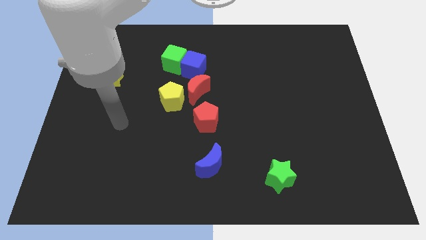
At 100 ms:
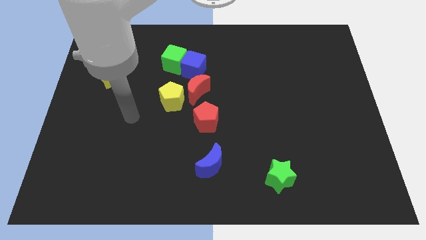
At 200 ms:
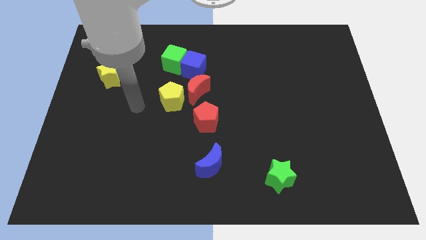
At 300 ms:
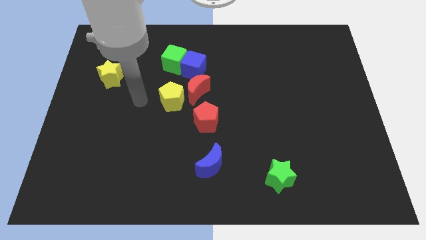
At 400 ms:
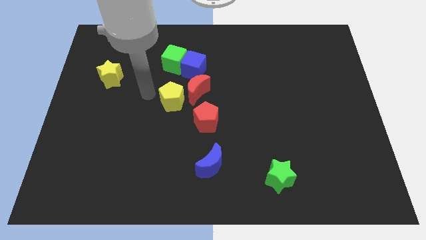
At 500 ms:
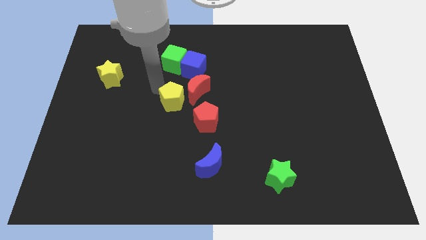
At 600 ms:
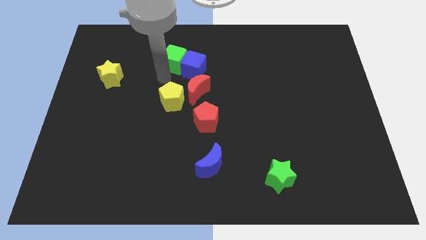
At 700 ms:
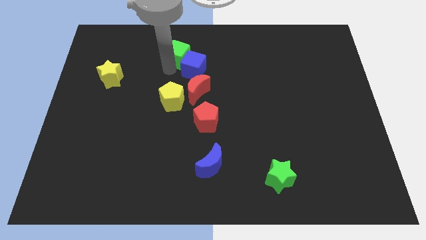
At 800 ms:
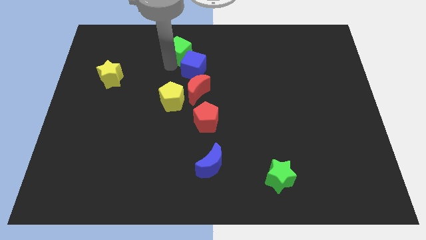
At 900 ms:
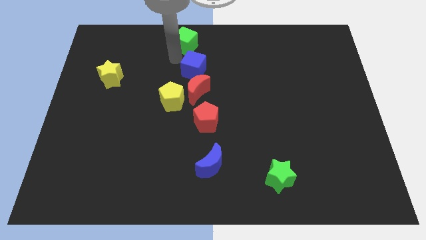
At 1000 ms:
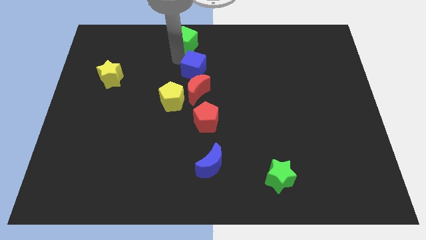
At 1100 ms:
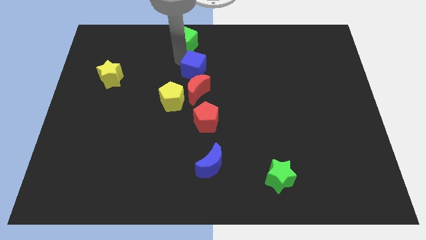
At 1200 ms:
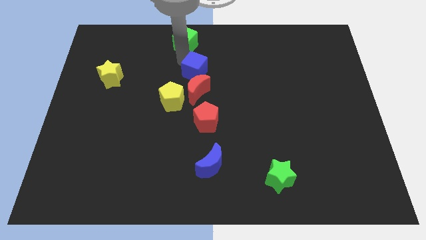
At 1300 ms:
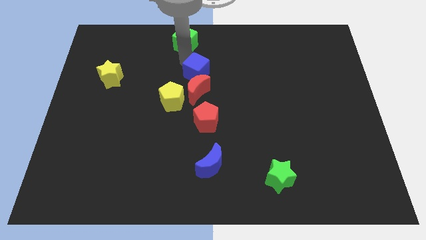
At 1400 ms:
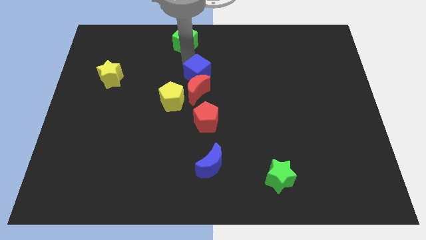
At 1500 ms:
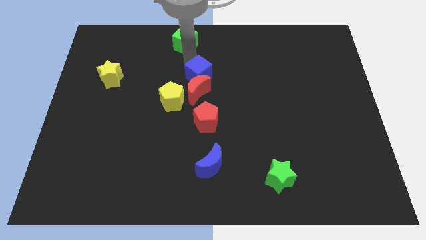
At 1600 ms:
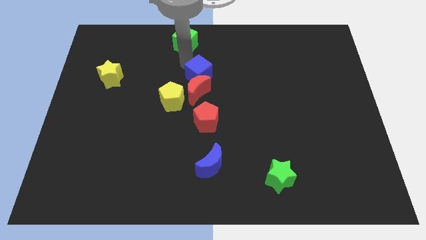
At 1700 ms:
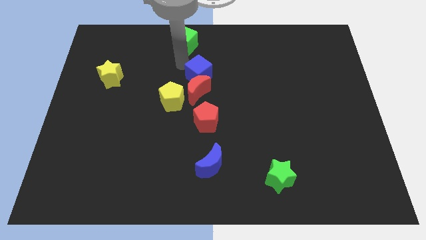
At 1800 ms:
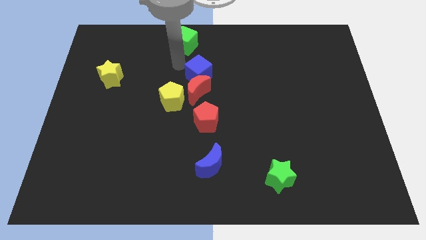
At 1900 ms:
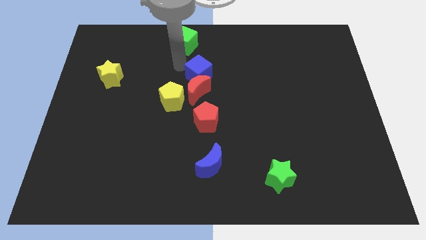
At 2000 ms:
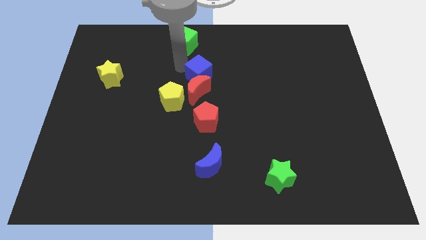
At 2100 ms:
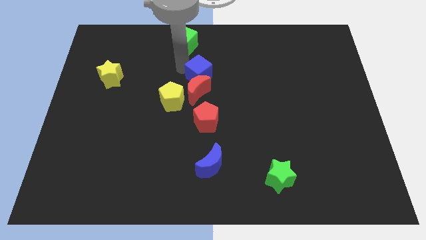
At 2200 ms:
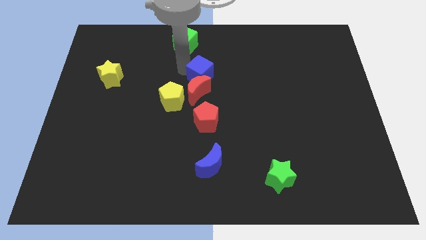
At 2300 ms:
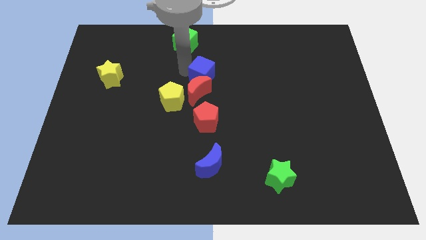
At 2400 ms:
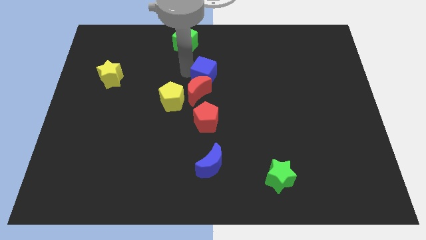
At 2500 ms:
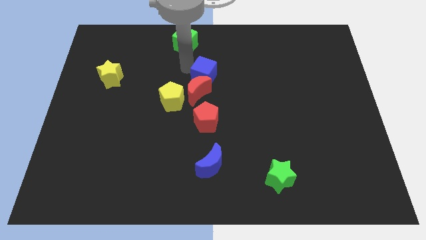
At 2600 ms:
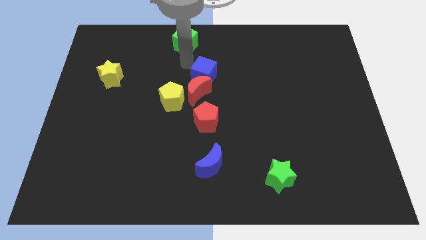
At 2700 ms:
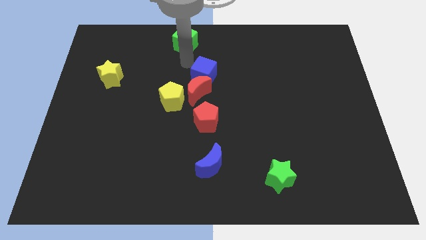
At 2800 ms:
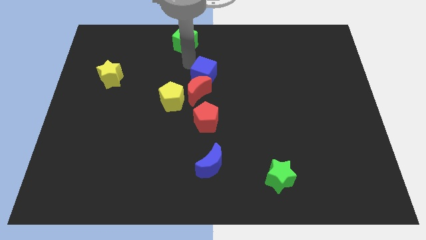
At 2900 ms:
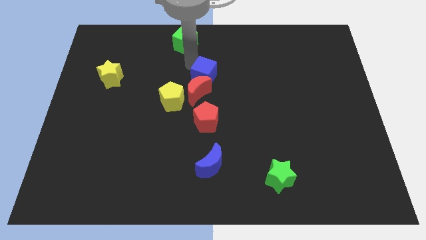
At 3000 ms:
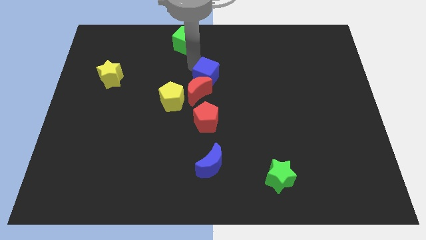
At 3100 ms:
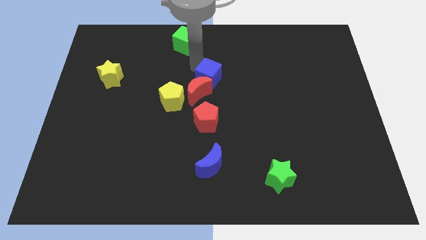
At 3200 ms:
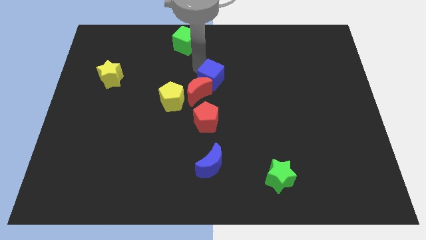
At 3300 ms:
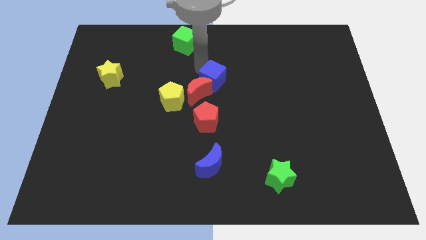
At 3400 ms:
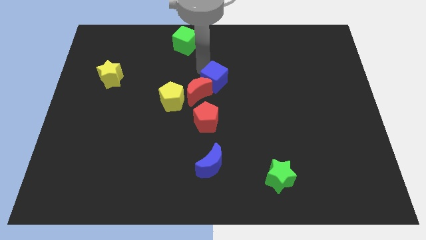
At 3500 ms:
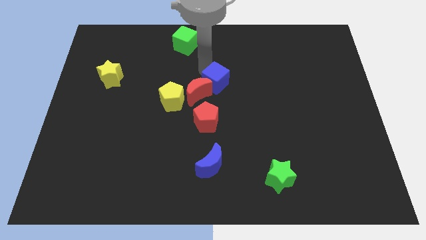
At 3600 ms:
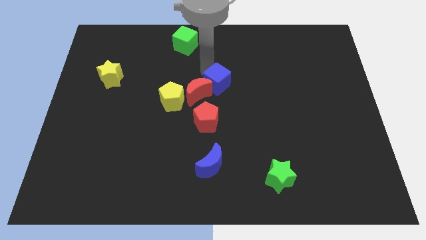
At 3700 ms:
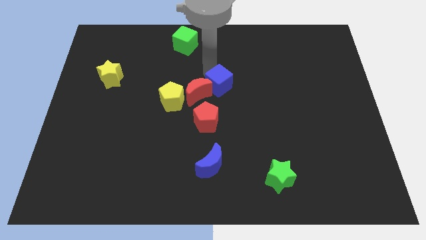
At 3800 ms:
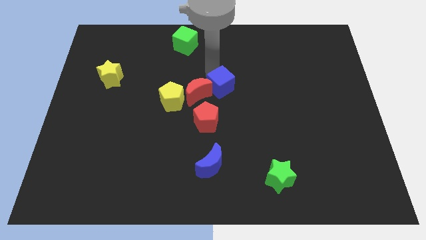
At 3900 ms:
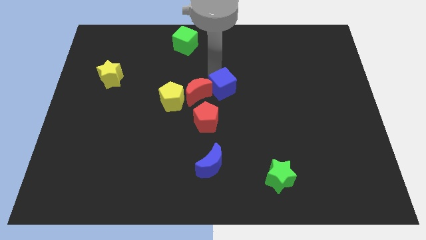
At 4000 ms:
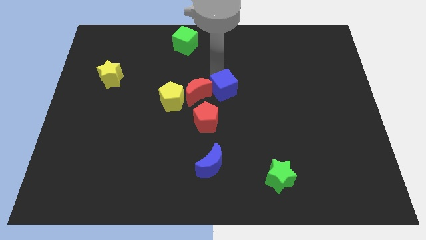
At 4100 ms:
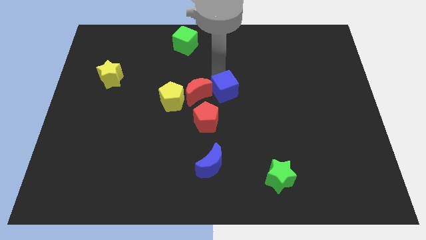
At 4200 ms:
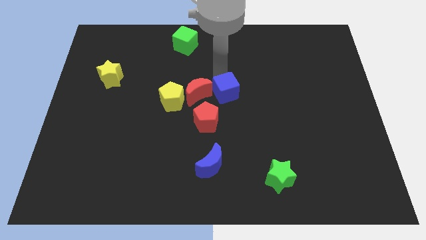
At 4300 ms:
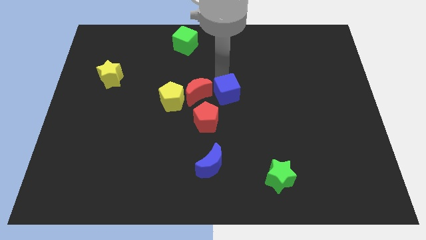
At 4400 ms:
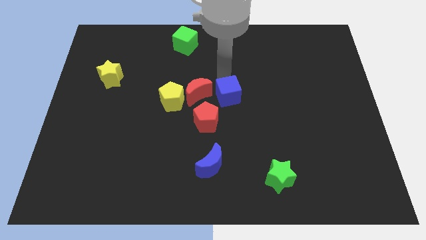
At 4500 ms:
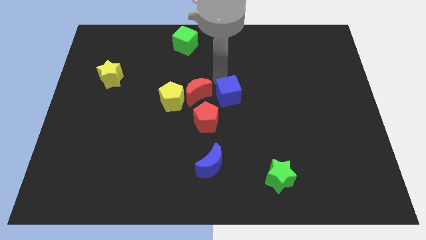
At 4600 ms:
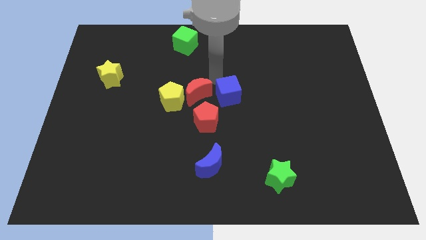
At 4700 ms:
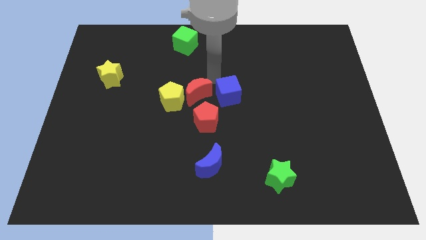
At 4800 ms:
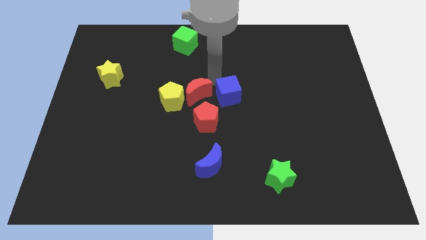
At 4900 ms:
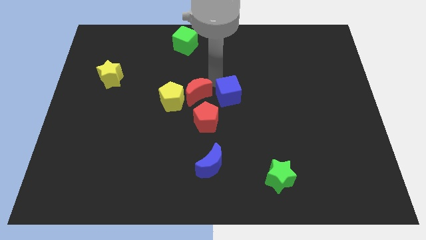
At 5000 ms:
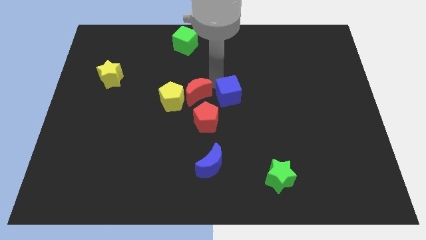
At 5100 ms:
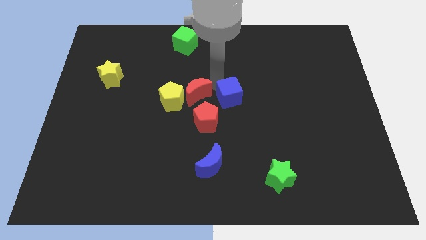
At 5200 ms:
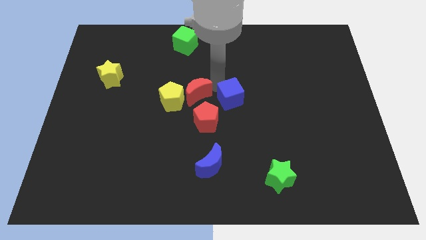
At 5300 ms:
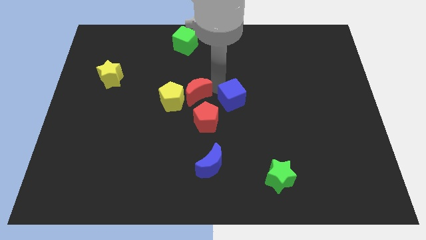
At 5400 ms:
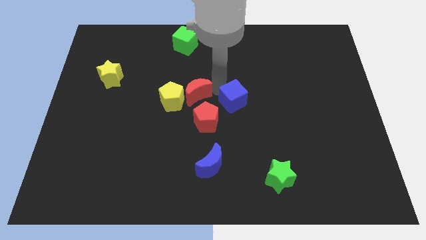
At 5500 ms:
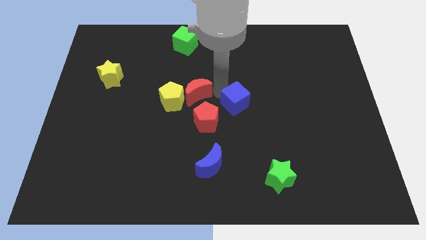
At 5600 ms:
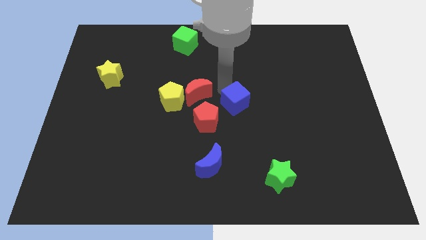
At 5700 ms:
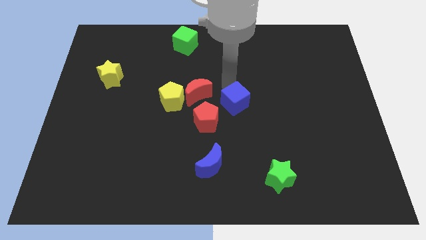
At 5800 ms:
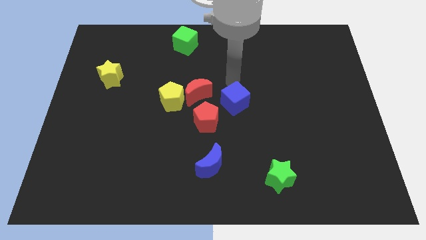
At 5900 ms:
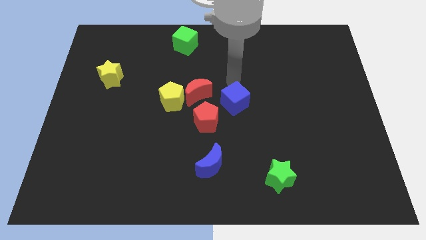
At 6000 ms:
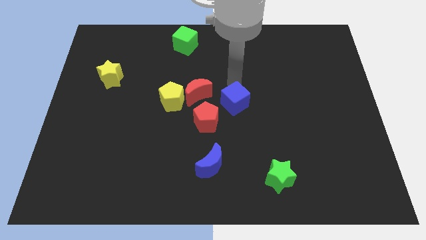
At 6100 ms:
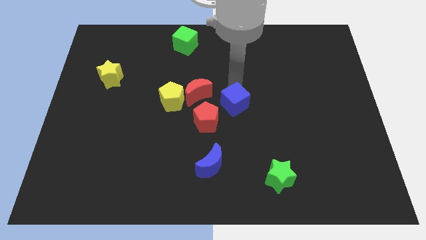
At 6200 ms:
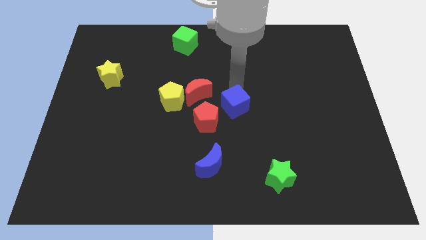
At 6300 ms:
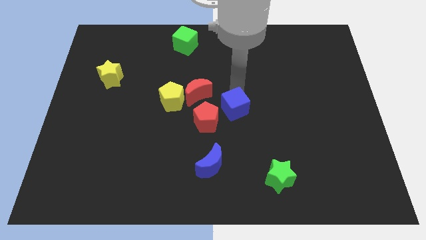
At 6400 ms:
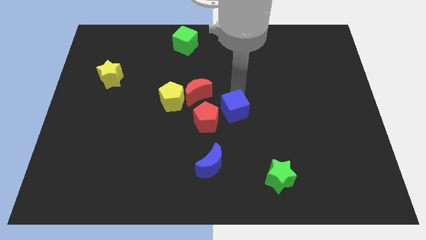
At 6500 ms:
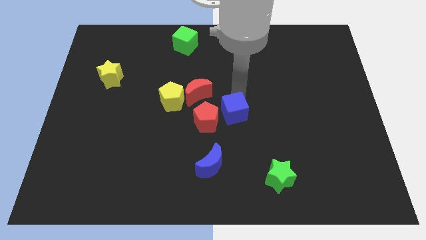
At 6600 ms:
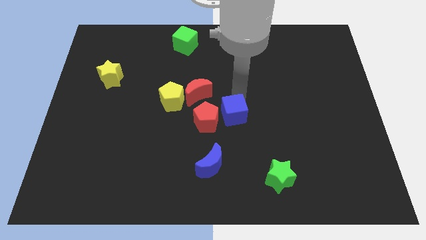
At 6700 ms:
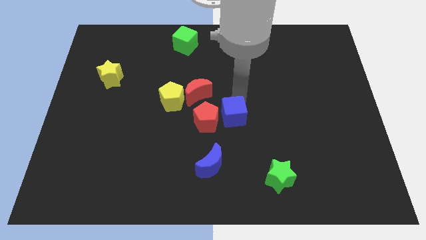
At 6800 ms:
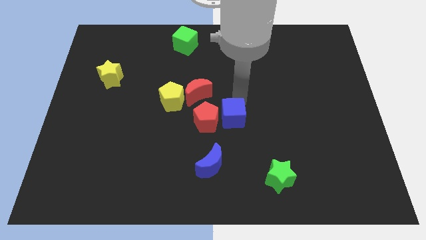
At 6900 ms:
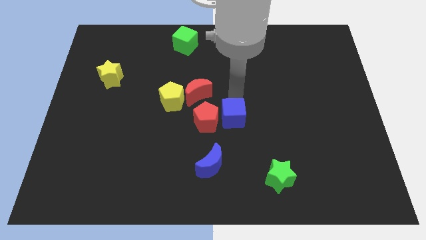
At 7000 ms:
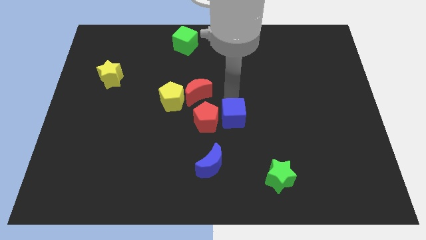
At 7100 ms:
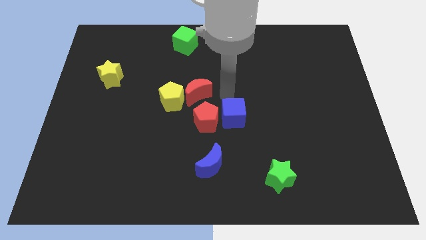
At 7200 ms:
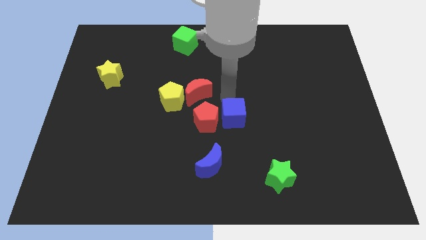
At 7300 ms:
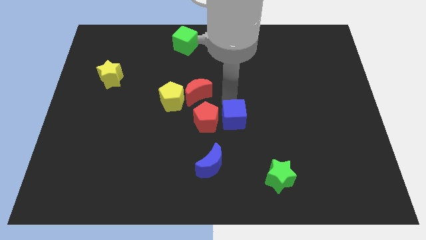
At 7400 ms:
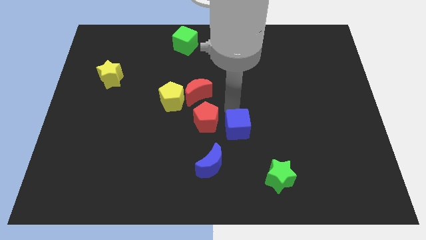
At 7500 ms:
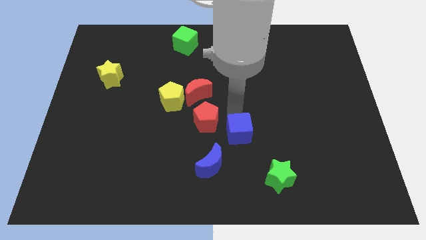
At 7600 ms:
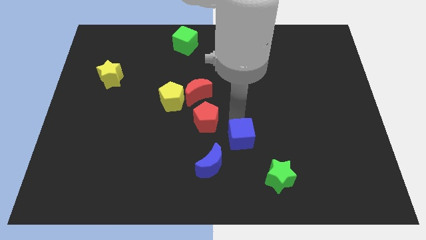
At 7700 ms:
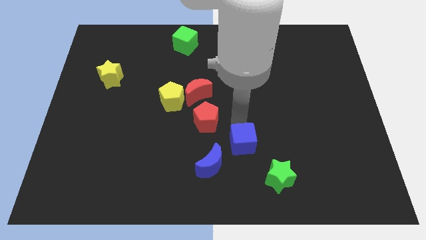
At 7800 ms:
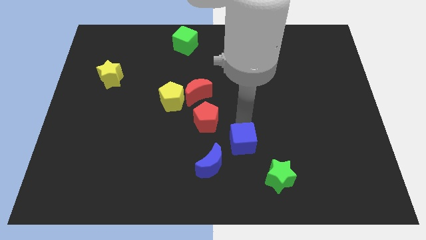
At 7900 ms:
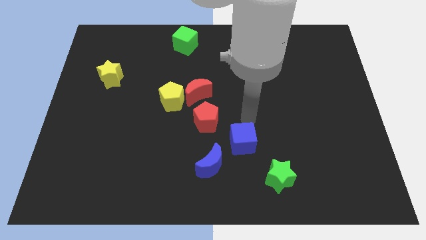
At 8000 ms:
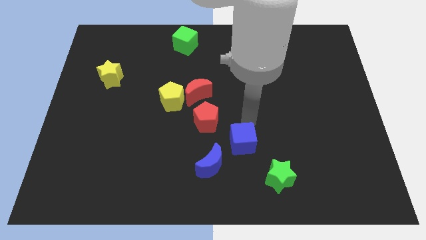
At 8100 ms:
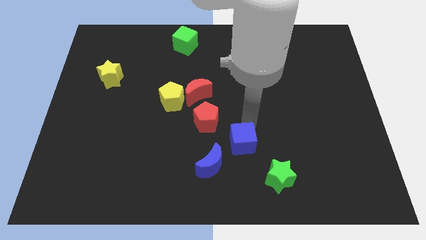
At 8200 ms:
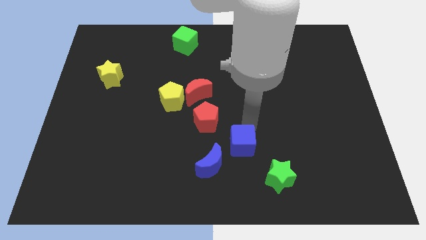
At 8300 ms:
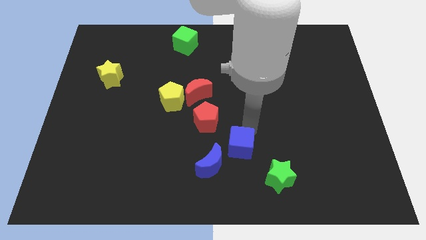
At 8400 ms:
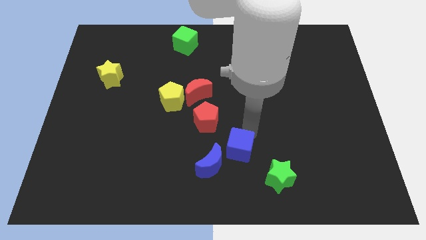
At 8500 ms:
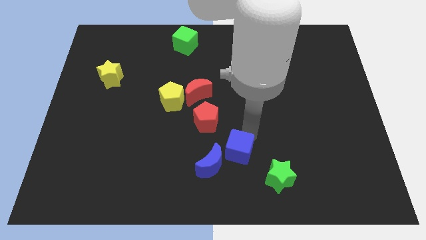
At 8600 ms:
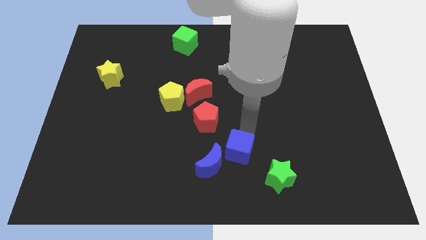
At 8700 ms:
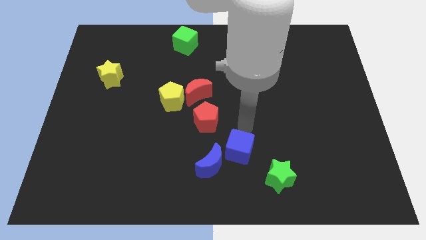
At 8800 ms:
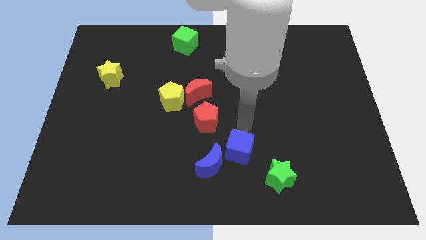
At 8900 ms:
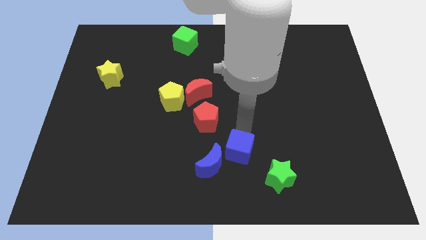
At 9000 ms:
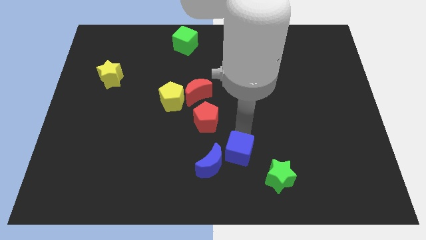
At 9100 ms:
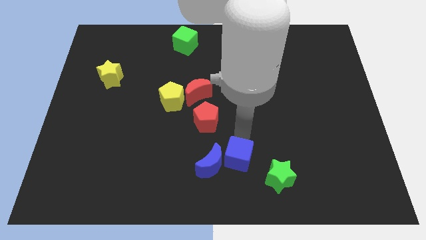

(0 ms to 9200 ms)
slide the blue cube to the bottom side
